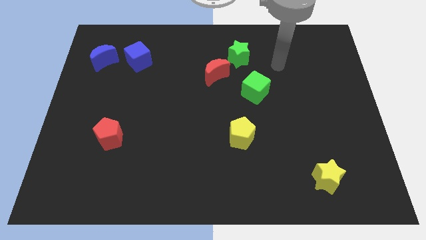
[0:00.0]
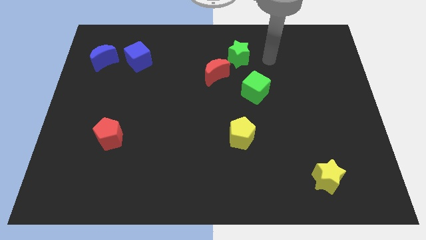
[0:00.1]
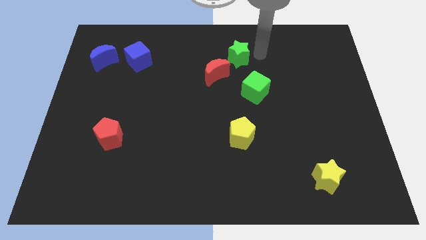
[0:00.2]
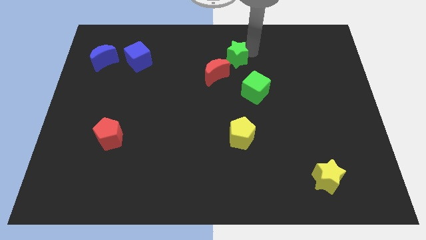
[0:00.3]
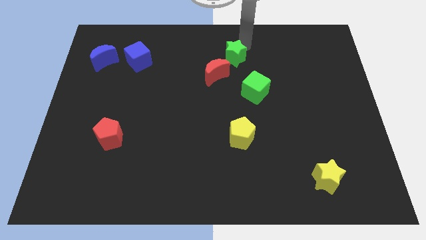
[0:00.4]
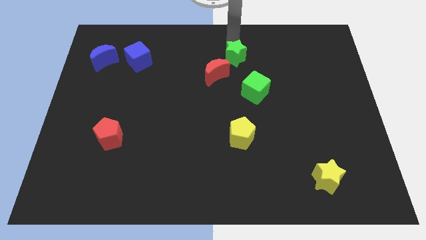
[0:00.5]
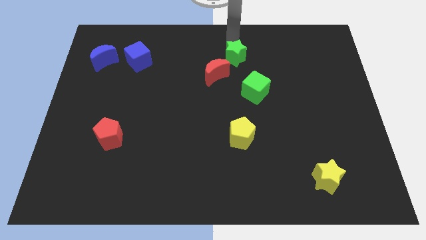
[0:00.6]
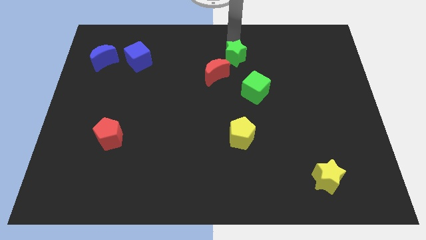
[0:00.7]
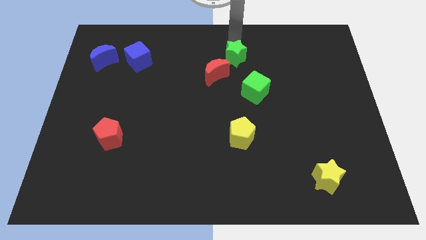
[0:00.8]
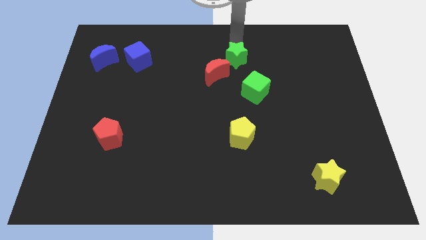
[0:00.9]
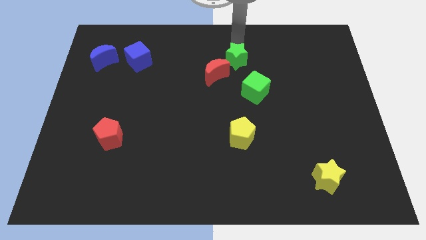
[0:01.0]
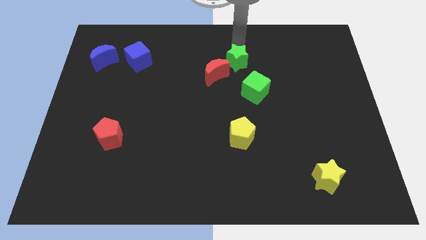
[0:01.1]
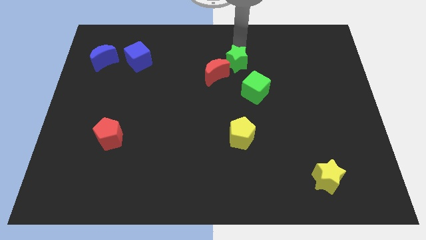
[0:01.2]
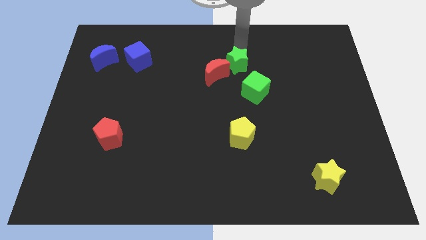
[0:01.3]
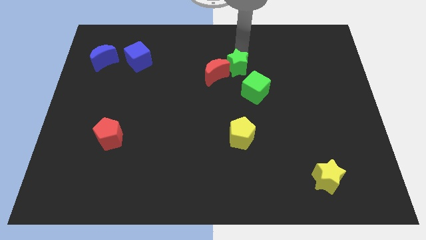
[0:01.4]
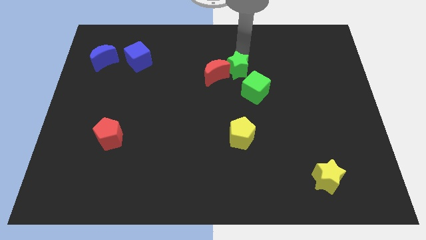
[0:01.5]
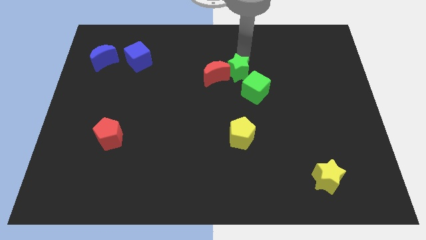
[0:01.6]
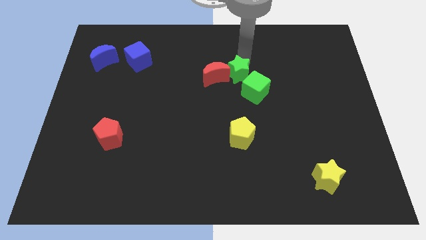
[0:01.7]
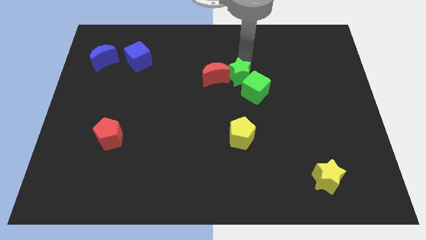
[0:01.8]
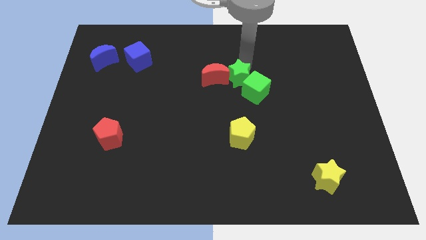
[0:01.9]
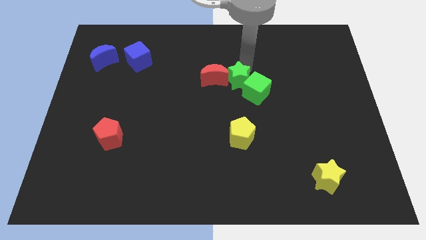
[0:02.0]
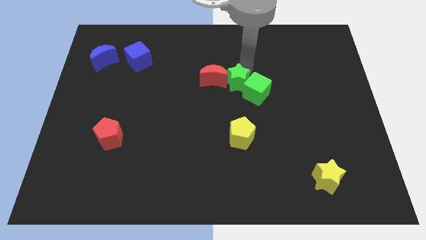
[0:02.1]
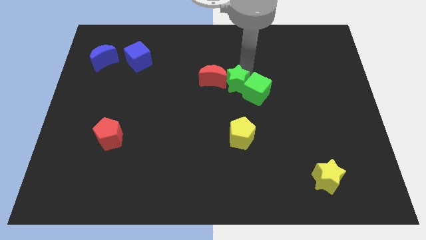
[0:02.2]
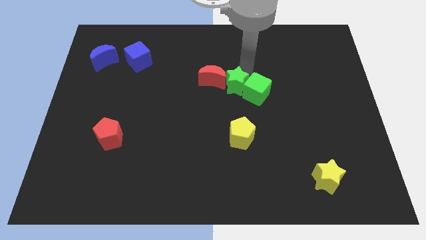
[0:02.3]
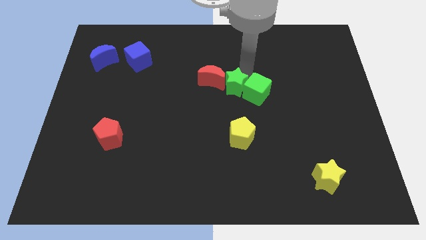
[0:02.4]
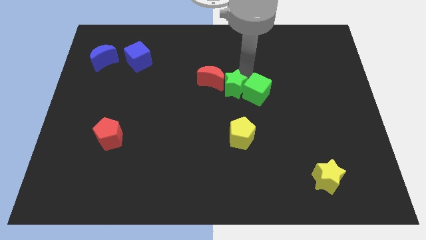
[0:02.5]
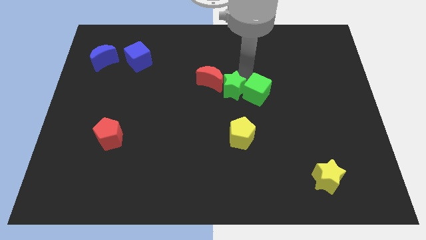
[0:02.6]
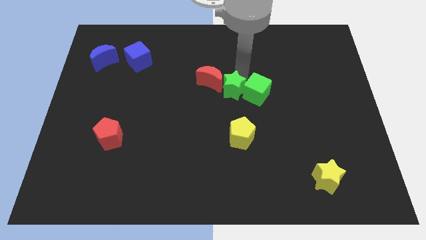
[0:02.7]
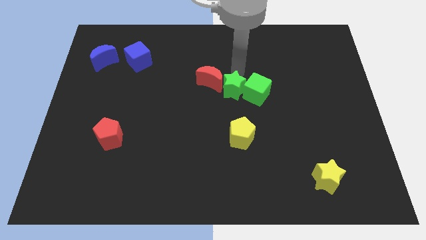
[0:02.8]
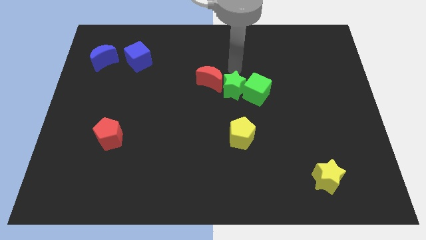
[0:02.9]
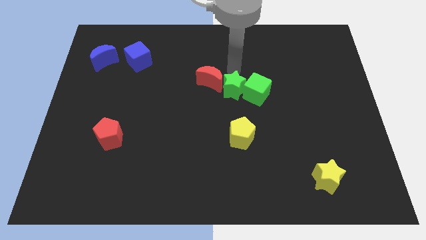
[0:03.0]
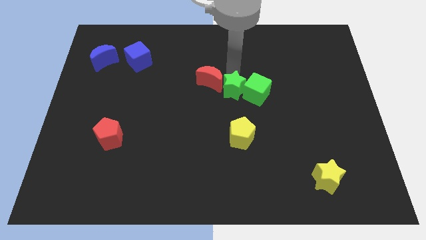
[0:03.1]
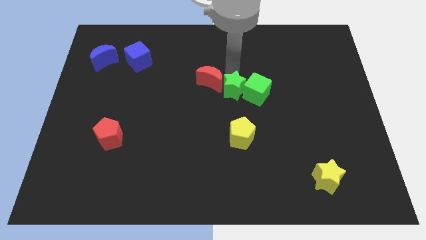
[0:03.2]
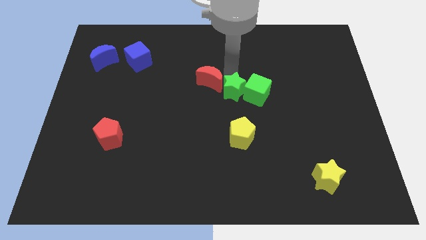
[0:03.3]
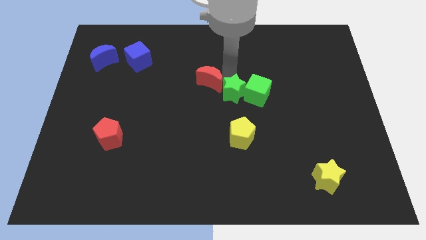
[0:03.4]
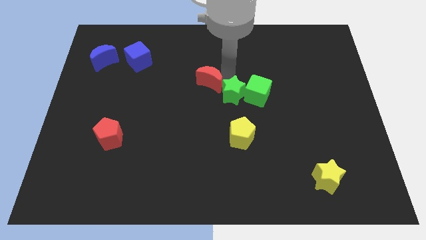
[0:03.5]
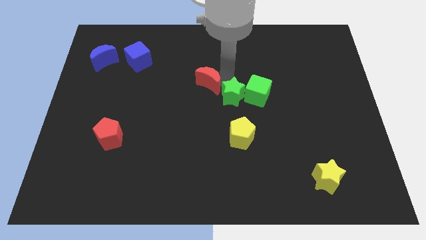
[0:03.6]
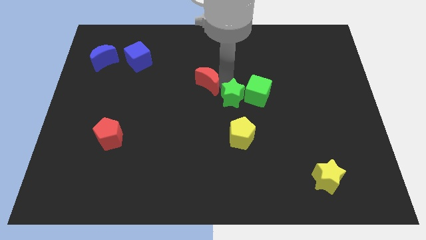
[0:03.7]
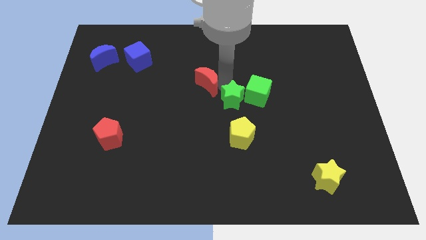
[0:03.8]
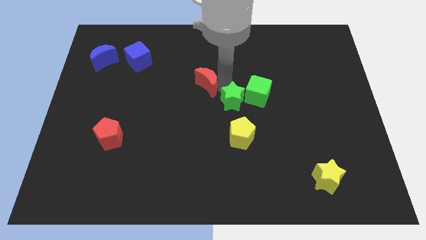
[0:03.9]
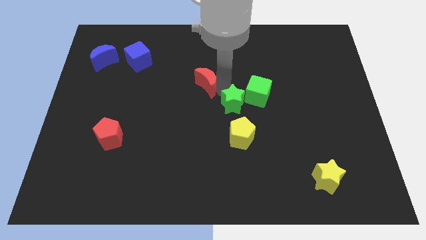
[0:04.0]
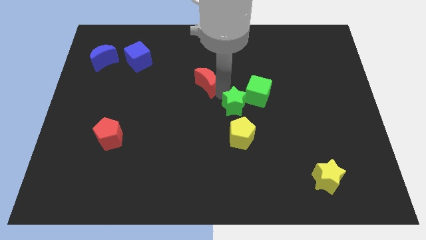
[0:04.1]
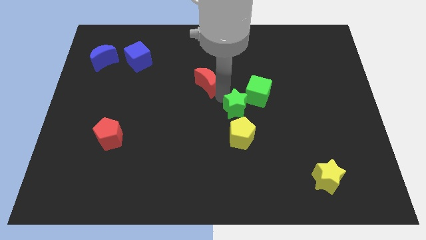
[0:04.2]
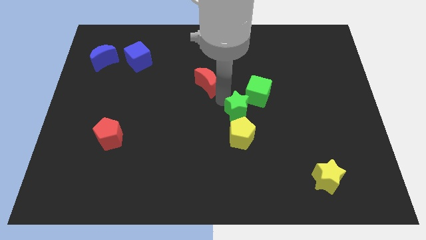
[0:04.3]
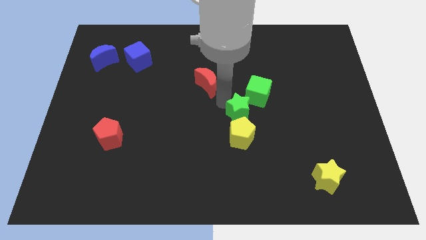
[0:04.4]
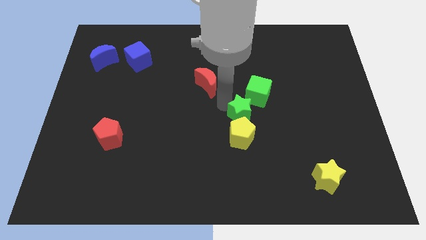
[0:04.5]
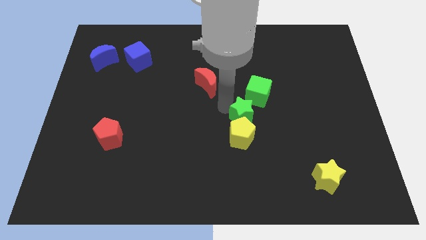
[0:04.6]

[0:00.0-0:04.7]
put the green star to the yellow pentagon

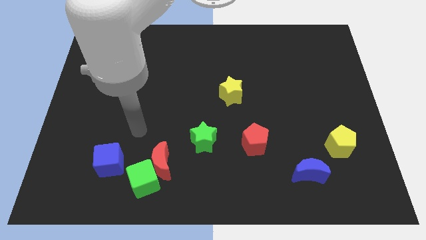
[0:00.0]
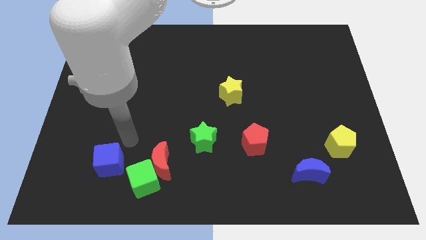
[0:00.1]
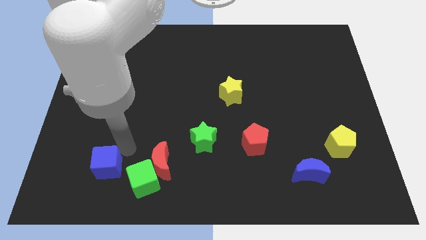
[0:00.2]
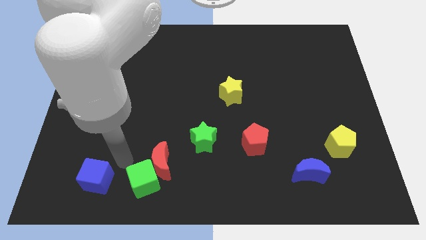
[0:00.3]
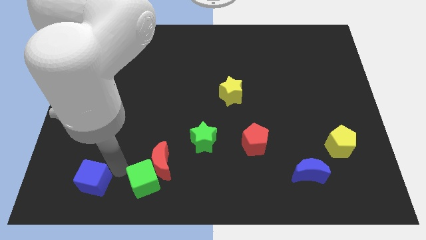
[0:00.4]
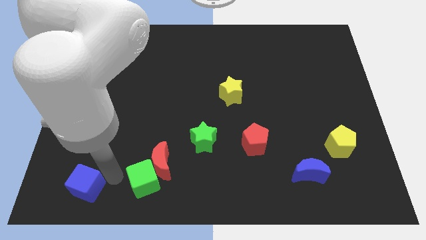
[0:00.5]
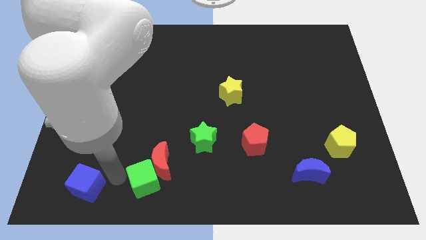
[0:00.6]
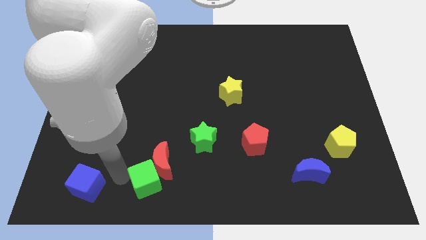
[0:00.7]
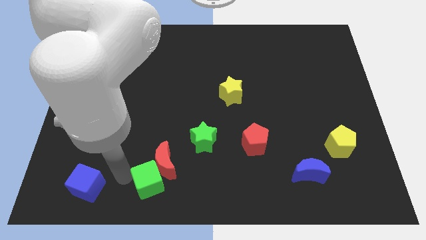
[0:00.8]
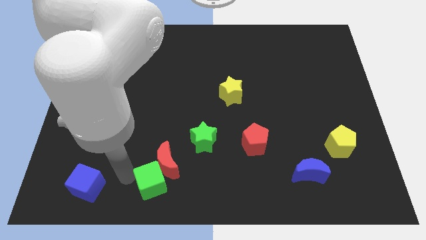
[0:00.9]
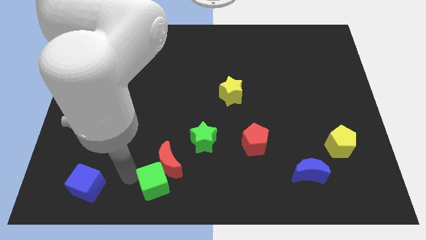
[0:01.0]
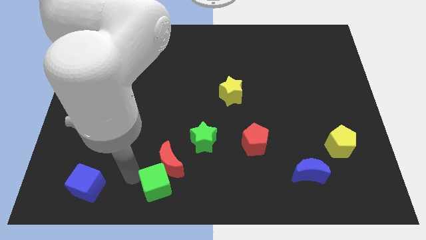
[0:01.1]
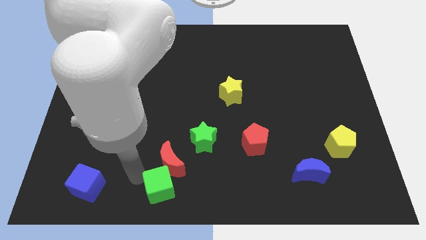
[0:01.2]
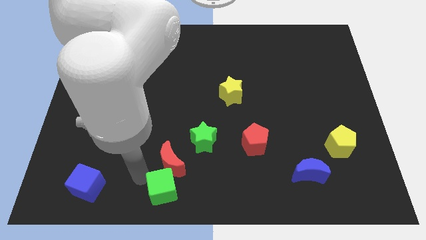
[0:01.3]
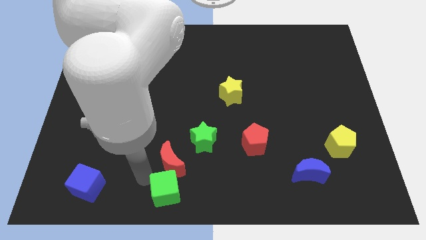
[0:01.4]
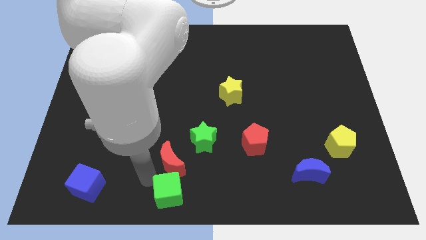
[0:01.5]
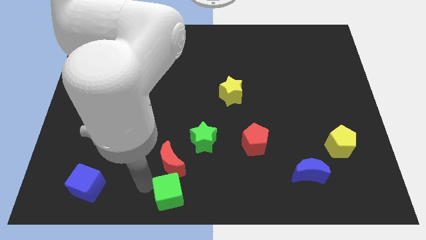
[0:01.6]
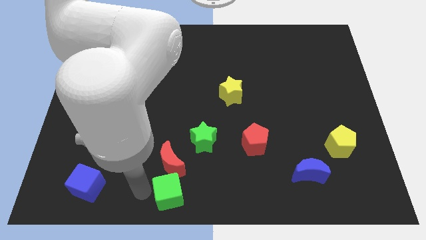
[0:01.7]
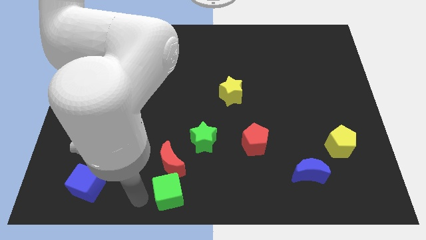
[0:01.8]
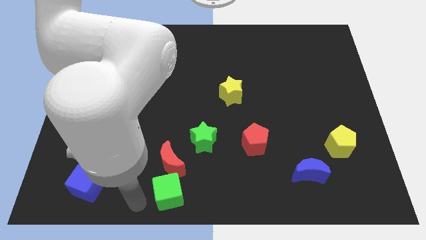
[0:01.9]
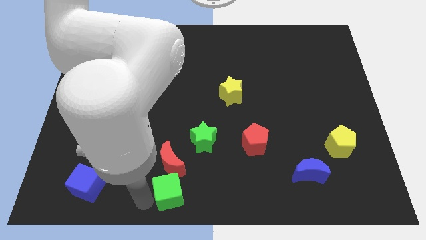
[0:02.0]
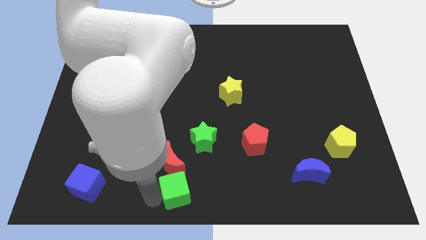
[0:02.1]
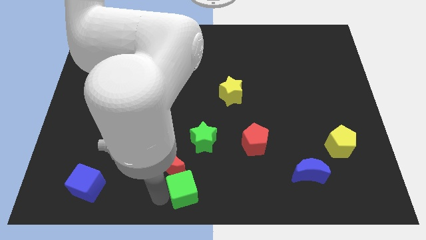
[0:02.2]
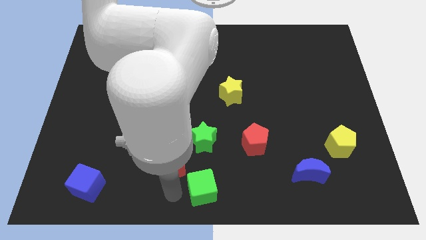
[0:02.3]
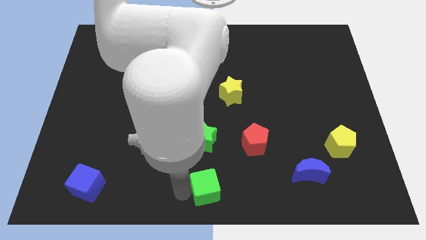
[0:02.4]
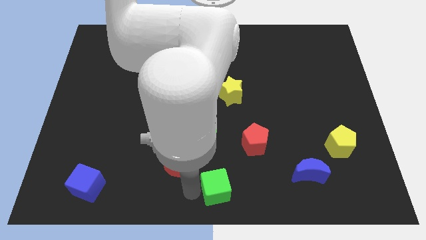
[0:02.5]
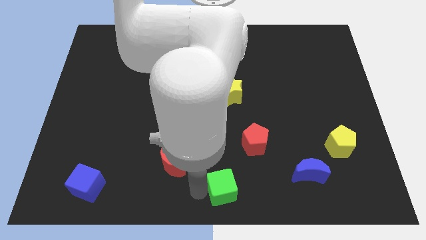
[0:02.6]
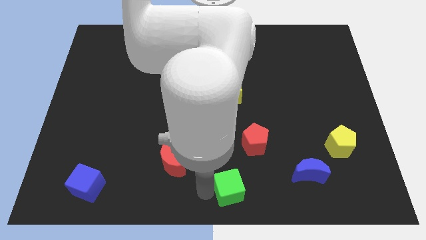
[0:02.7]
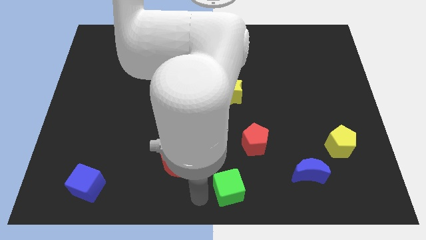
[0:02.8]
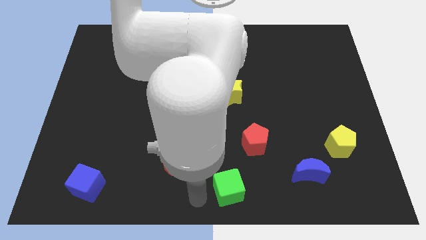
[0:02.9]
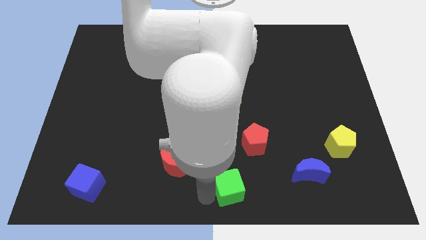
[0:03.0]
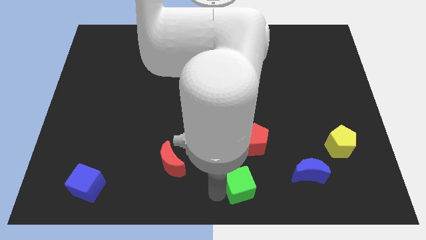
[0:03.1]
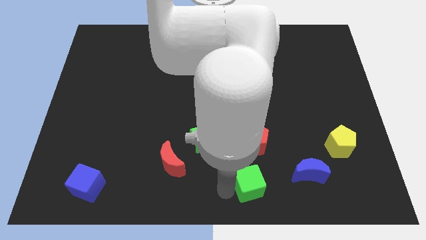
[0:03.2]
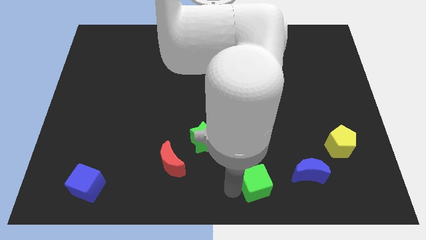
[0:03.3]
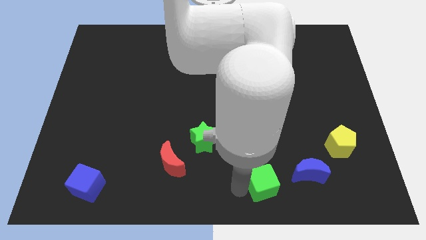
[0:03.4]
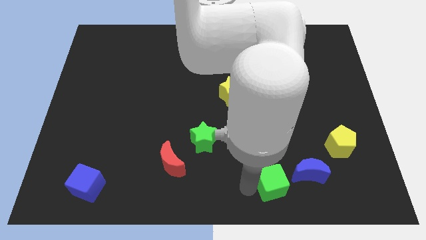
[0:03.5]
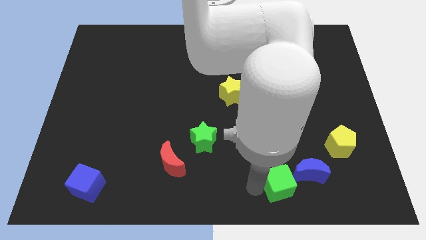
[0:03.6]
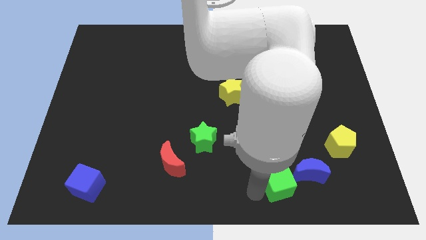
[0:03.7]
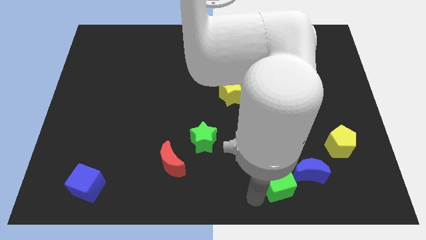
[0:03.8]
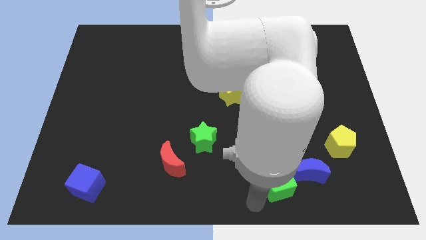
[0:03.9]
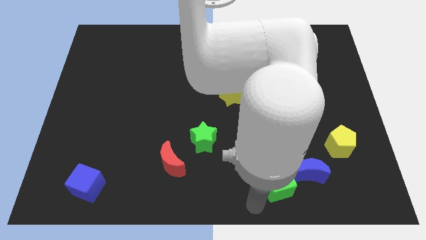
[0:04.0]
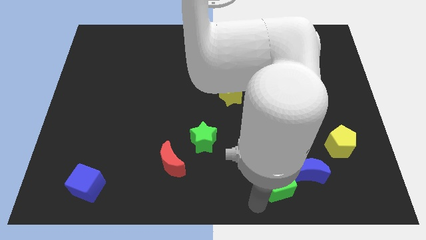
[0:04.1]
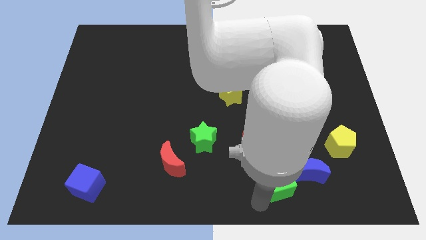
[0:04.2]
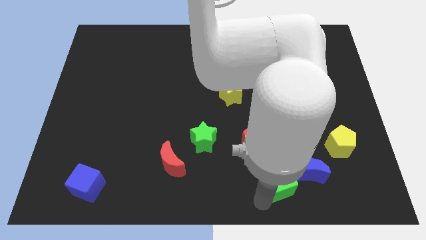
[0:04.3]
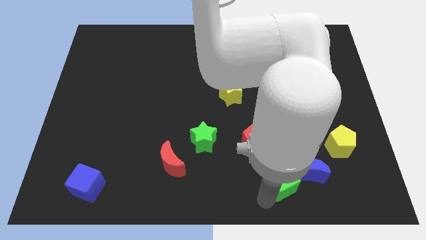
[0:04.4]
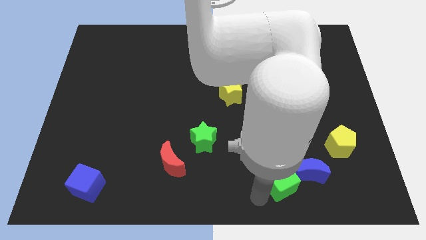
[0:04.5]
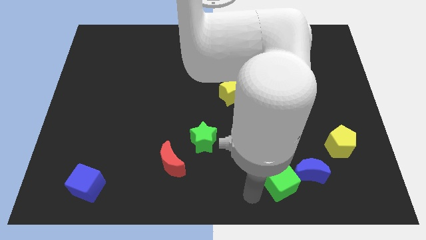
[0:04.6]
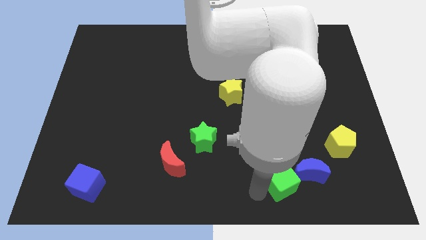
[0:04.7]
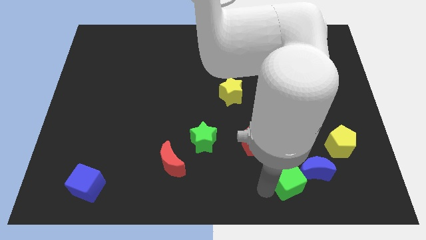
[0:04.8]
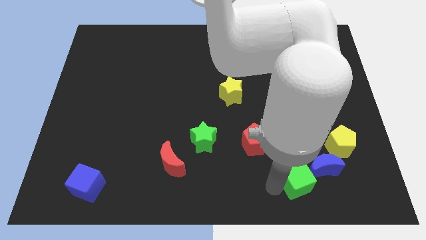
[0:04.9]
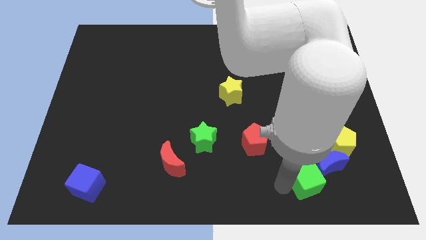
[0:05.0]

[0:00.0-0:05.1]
move the green cube to the blue moon
